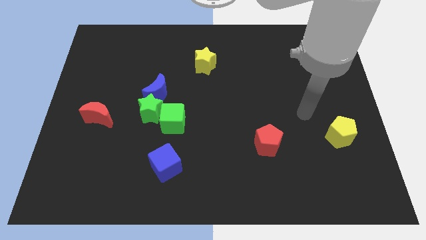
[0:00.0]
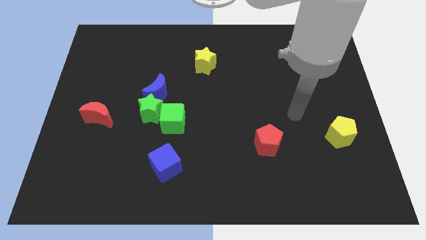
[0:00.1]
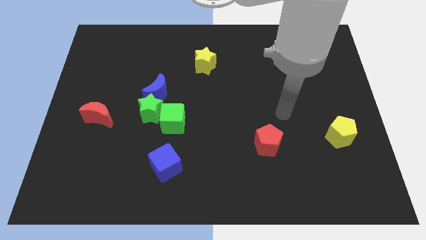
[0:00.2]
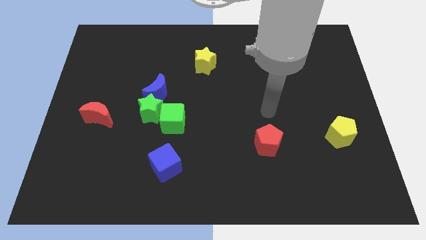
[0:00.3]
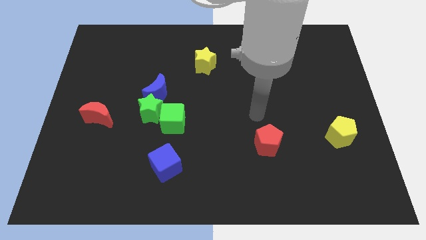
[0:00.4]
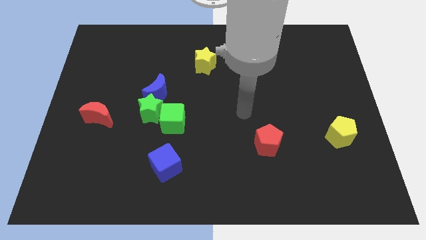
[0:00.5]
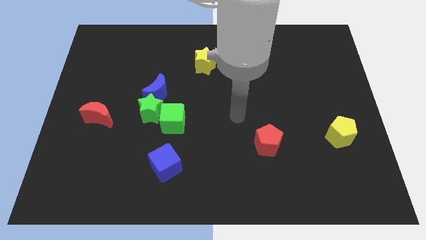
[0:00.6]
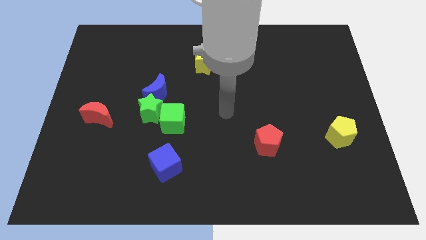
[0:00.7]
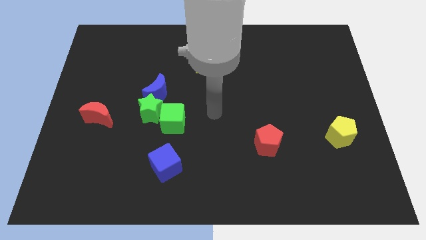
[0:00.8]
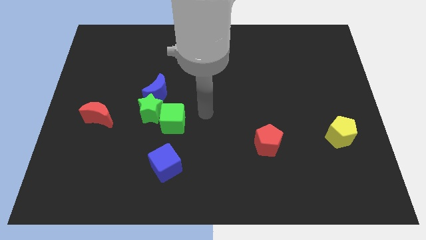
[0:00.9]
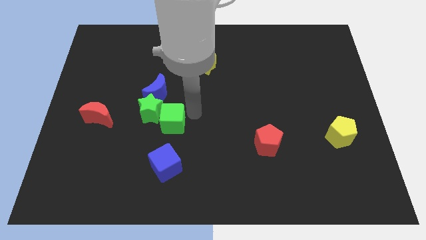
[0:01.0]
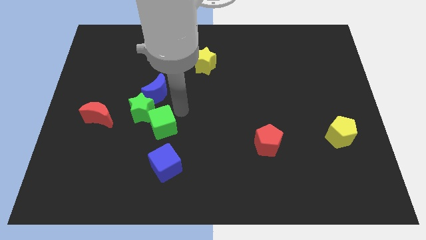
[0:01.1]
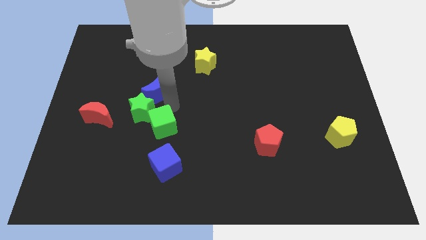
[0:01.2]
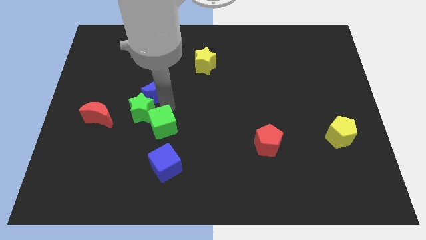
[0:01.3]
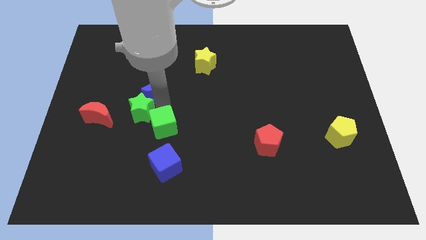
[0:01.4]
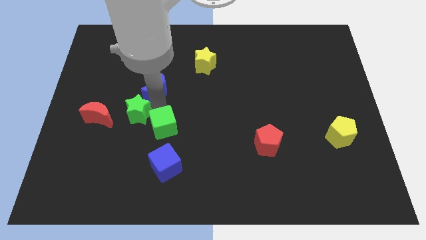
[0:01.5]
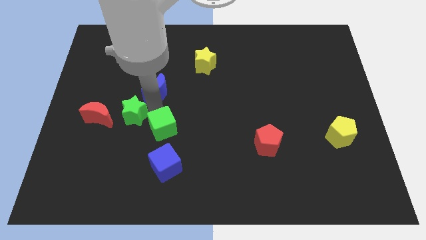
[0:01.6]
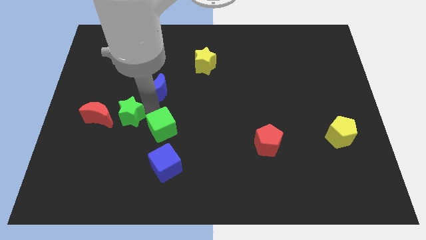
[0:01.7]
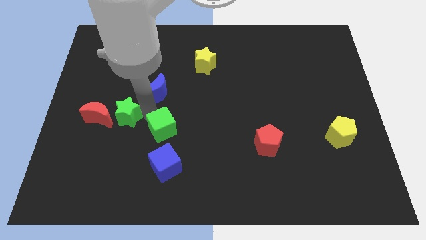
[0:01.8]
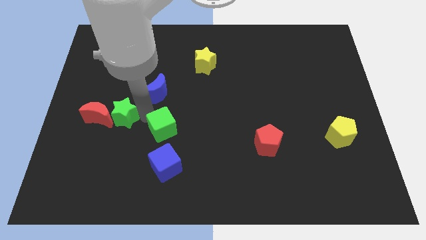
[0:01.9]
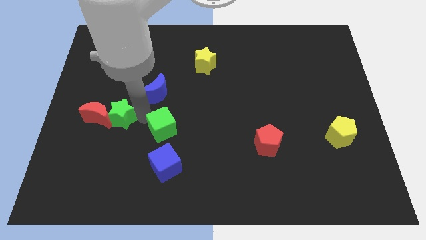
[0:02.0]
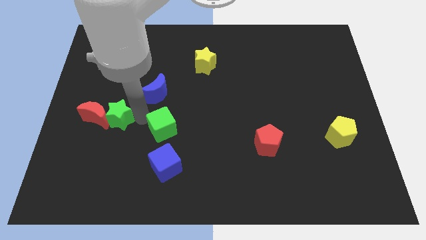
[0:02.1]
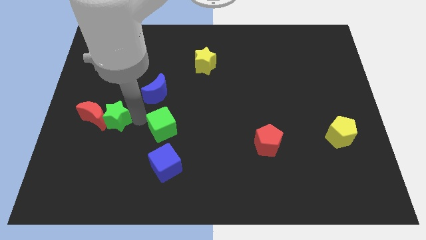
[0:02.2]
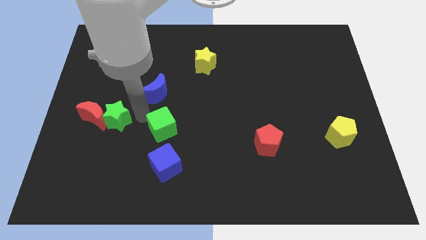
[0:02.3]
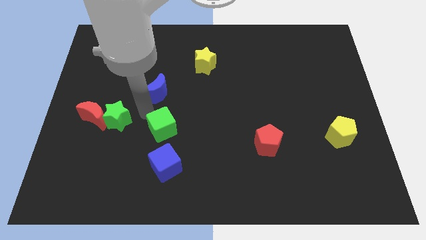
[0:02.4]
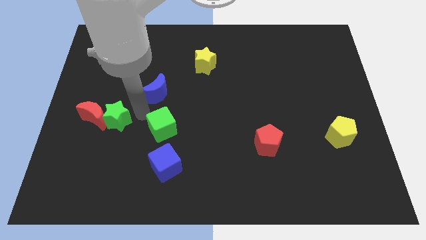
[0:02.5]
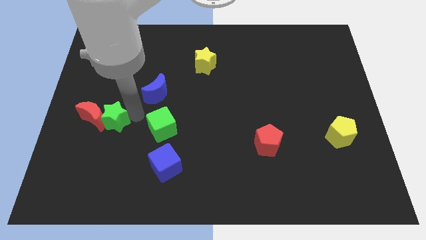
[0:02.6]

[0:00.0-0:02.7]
move the green star away from the green cube and blue moon

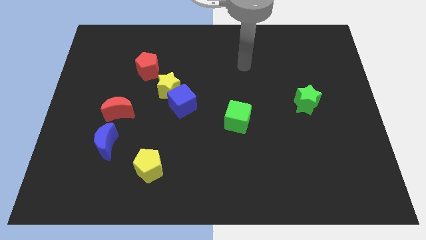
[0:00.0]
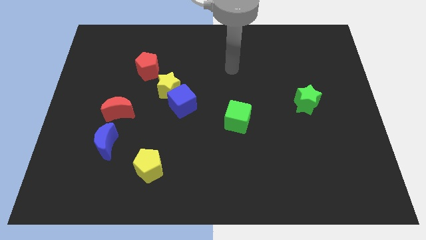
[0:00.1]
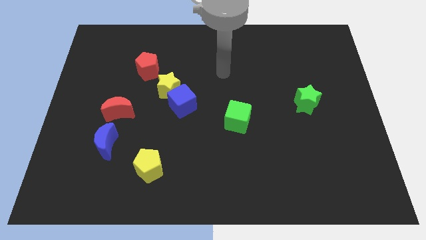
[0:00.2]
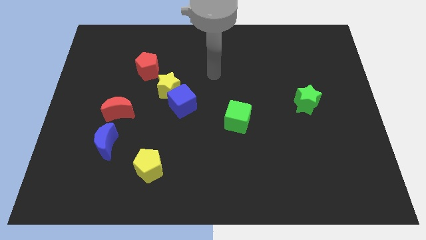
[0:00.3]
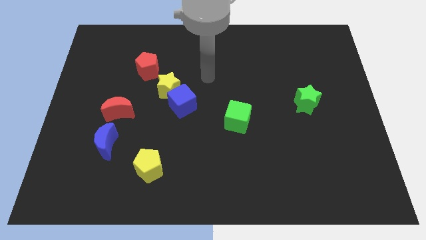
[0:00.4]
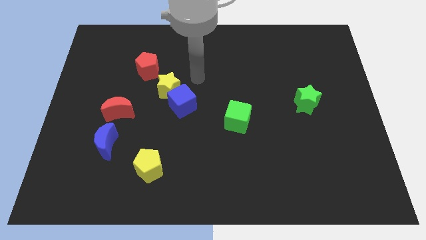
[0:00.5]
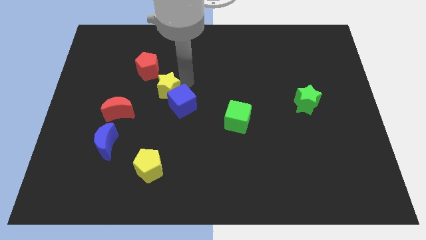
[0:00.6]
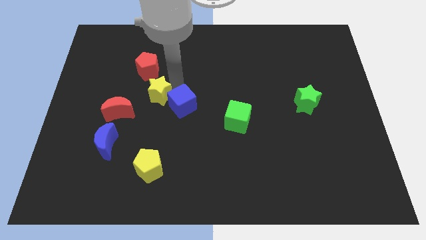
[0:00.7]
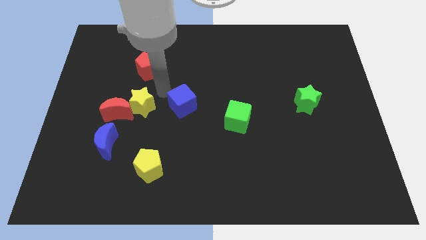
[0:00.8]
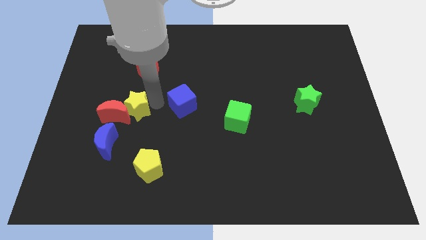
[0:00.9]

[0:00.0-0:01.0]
move the blue cube away from the yellow star

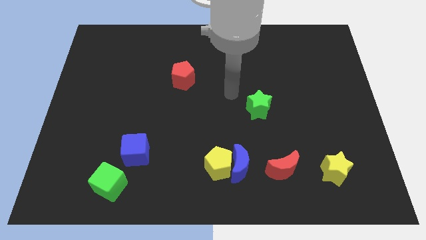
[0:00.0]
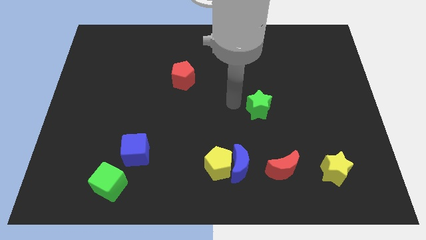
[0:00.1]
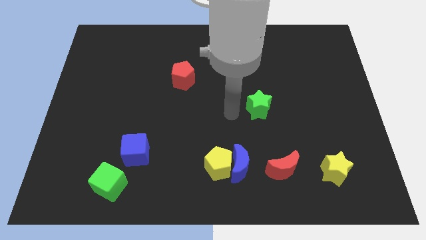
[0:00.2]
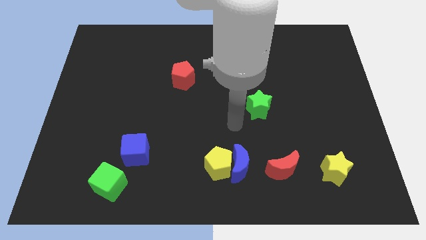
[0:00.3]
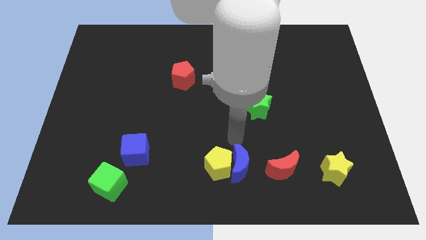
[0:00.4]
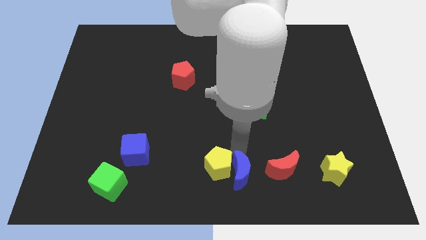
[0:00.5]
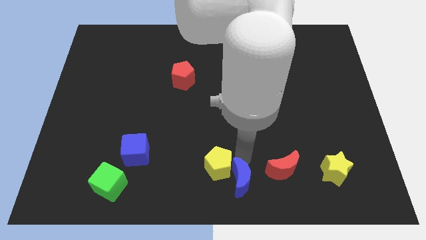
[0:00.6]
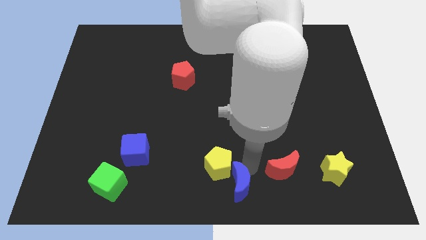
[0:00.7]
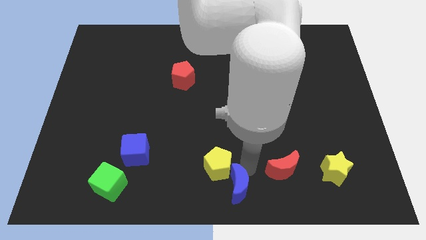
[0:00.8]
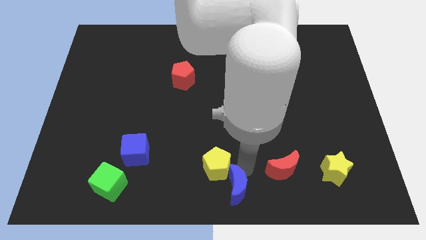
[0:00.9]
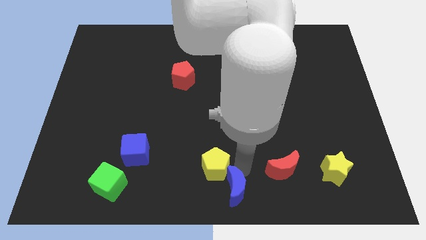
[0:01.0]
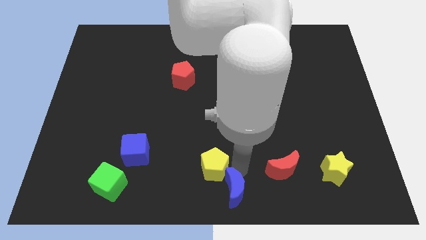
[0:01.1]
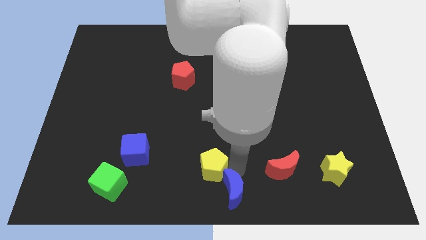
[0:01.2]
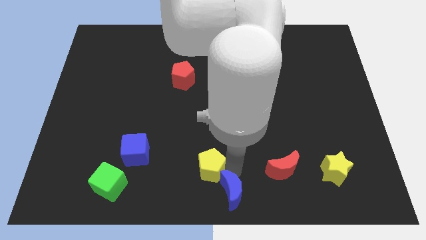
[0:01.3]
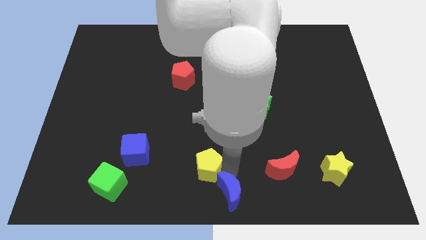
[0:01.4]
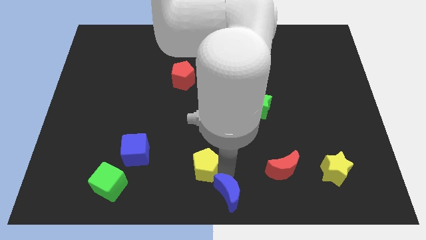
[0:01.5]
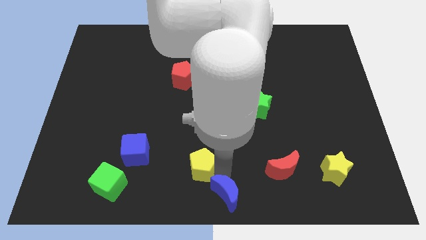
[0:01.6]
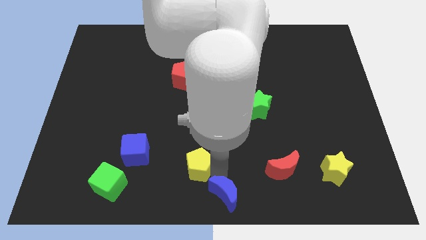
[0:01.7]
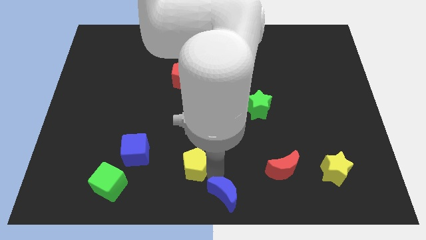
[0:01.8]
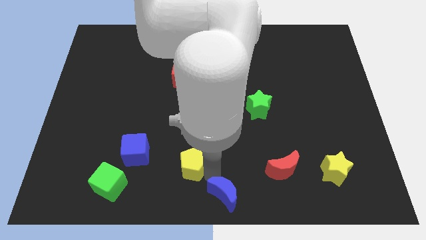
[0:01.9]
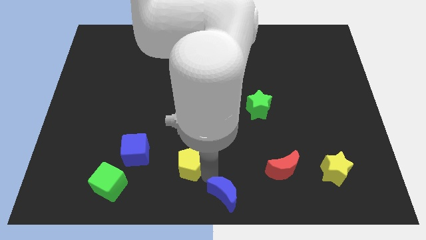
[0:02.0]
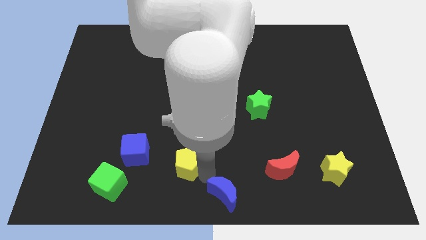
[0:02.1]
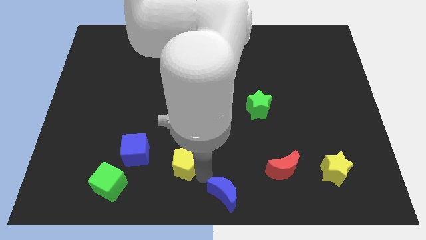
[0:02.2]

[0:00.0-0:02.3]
separate the yellow pentagon from the blue moon

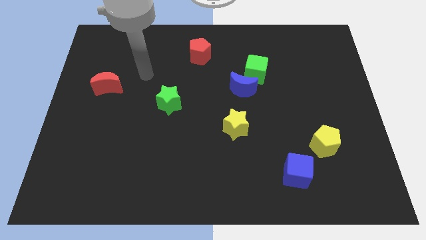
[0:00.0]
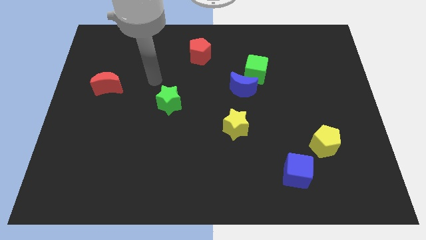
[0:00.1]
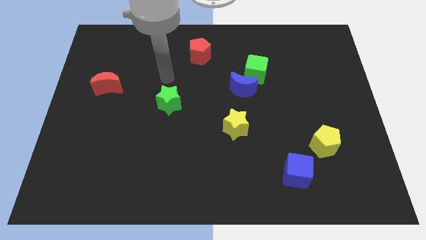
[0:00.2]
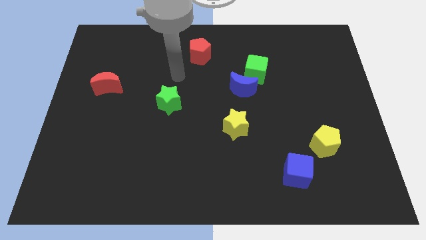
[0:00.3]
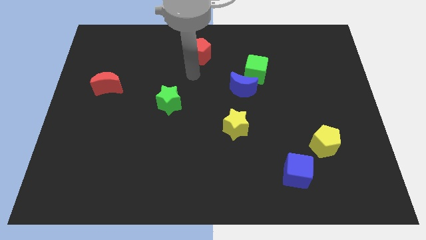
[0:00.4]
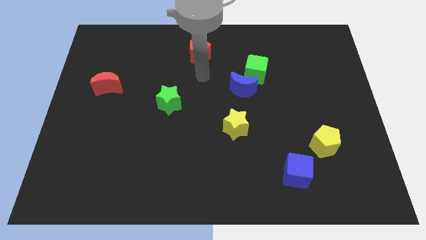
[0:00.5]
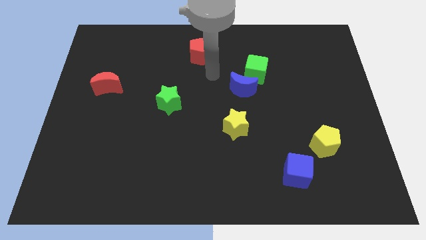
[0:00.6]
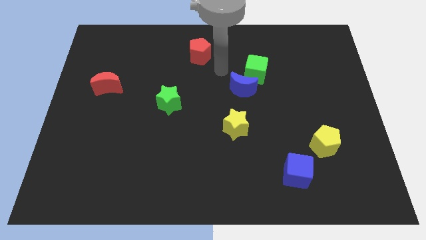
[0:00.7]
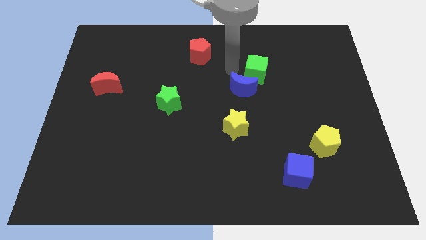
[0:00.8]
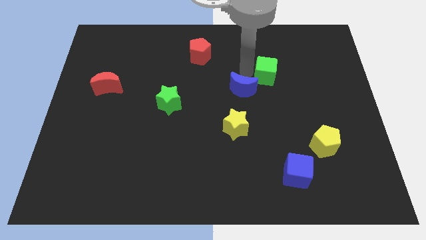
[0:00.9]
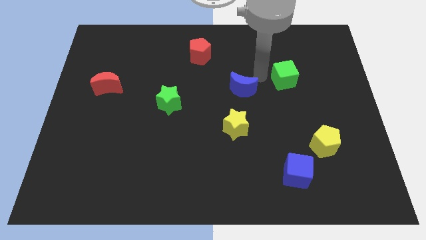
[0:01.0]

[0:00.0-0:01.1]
pull the blue moon apart from the green cube

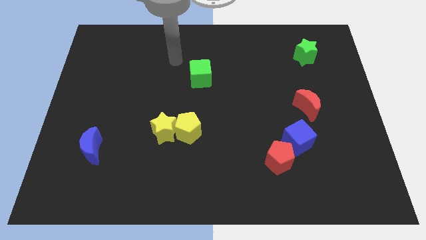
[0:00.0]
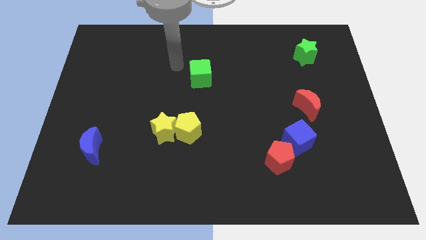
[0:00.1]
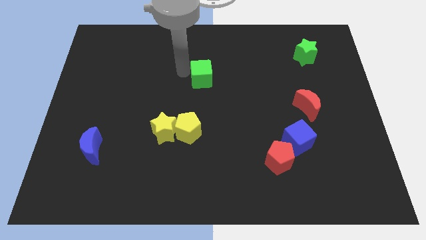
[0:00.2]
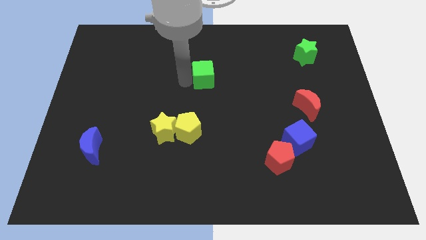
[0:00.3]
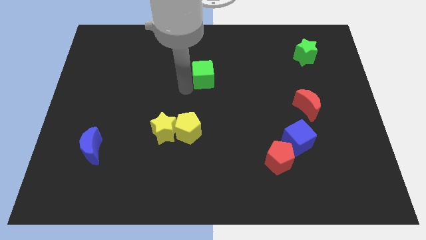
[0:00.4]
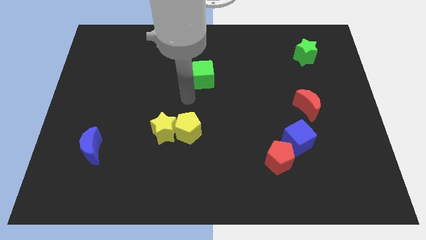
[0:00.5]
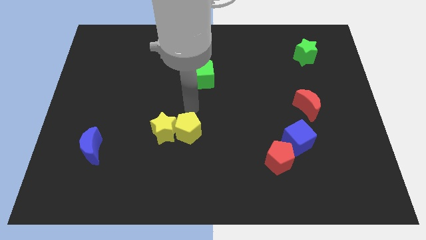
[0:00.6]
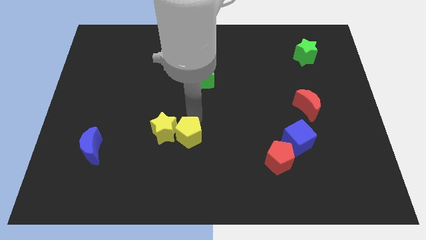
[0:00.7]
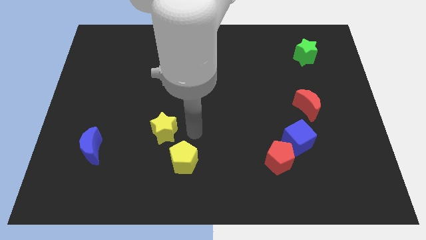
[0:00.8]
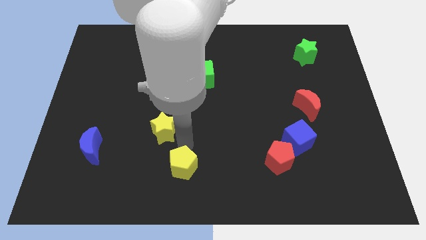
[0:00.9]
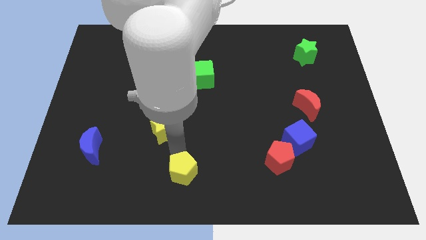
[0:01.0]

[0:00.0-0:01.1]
move the yellow star away from the yellow pentagon

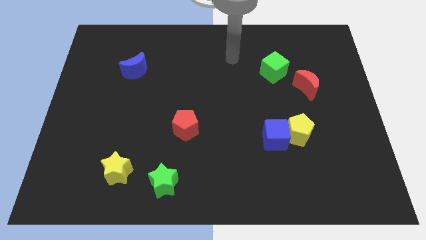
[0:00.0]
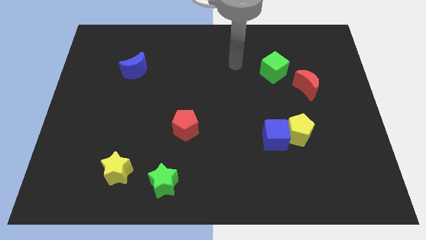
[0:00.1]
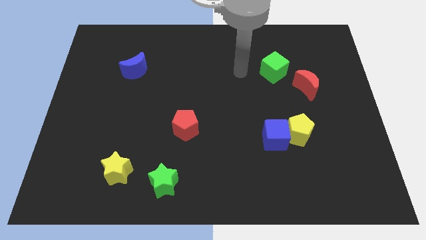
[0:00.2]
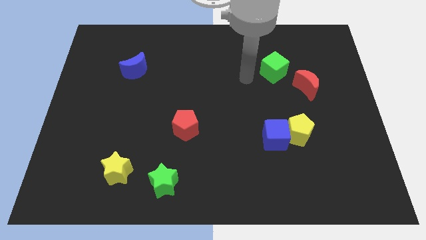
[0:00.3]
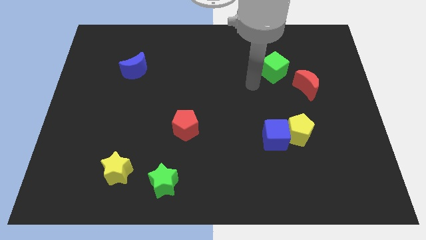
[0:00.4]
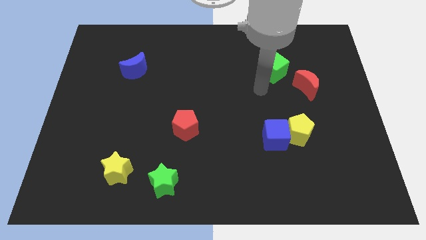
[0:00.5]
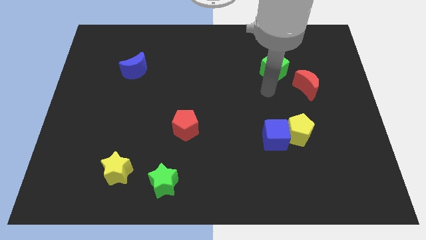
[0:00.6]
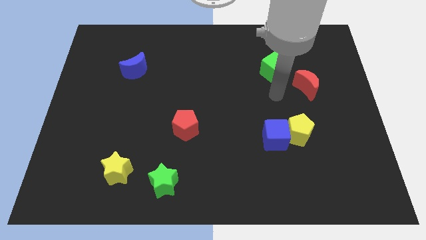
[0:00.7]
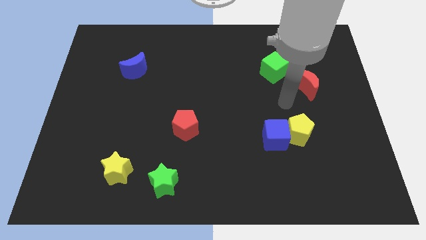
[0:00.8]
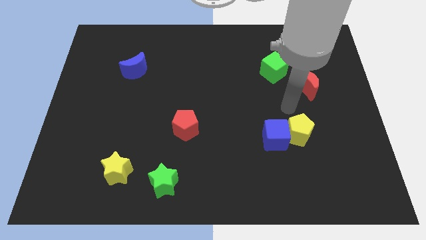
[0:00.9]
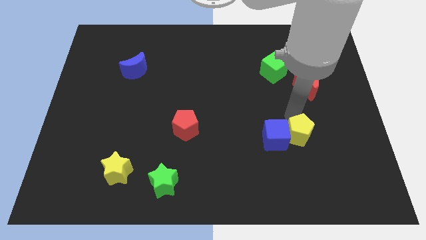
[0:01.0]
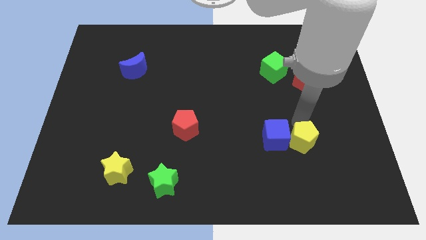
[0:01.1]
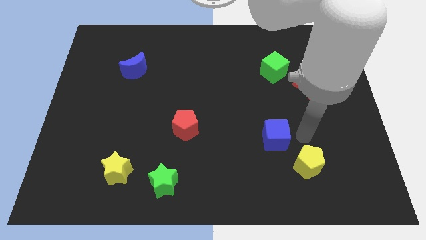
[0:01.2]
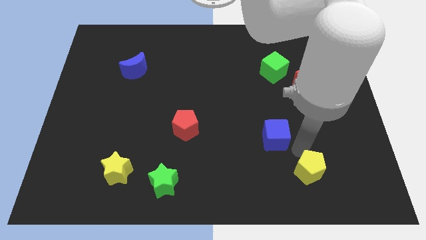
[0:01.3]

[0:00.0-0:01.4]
pull the blue cube apart from the yellow pentagon
